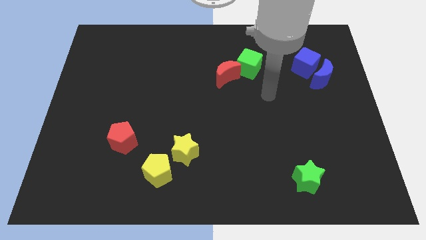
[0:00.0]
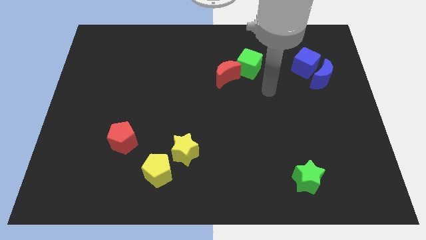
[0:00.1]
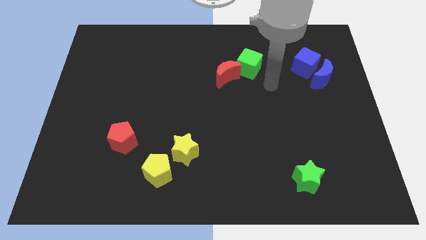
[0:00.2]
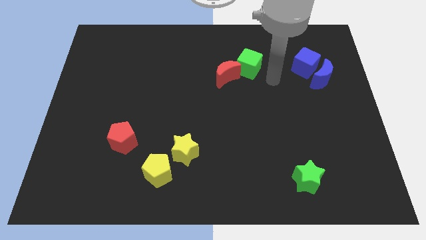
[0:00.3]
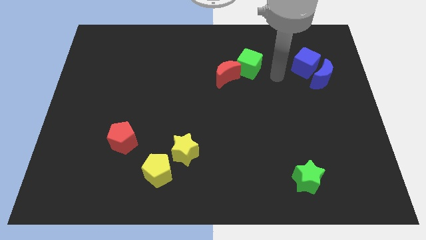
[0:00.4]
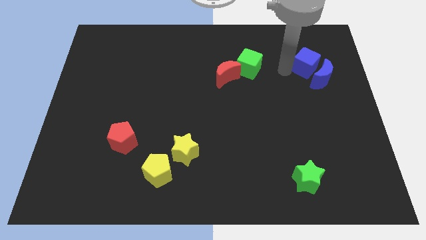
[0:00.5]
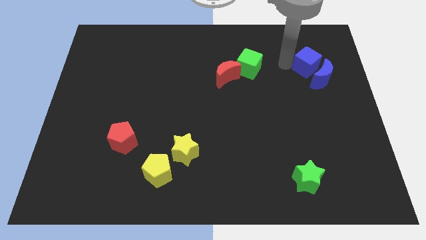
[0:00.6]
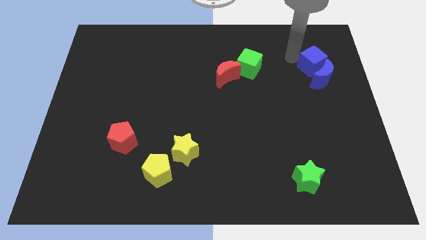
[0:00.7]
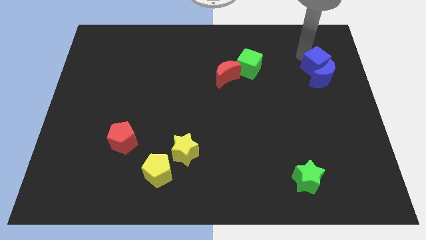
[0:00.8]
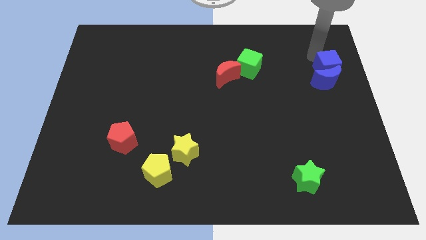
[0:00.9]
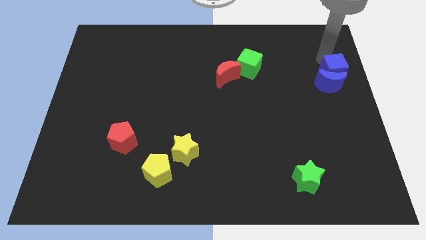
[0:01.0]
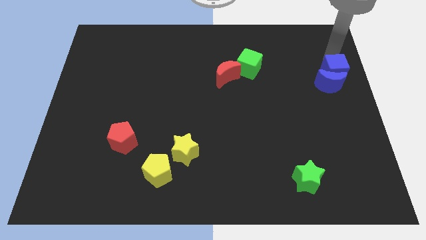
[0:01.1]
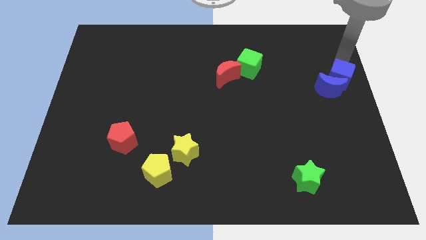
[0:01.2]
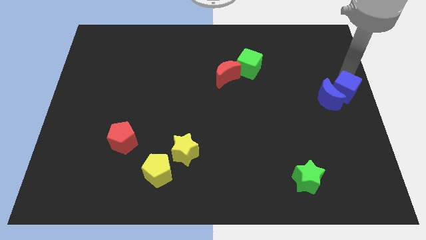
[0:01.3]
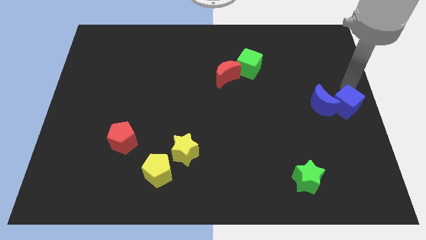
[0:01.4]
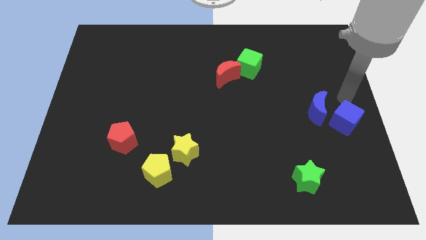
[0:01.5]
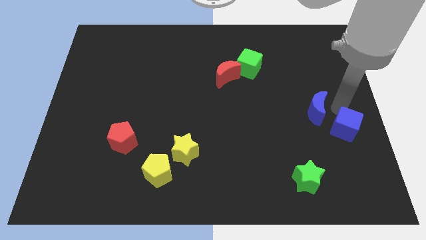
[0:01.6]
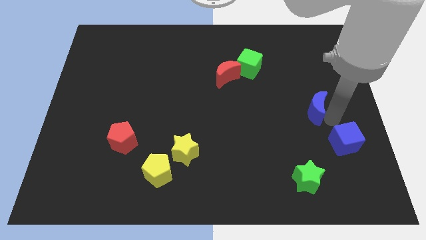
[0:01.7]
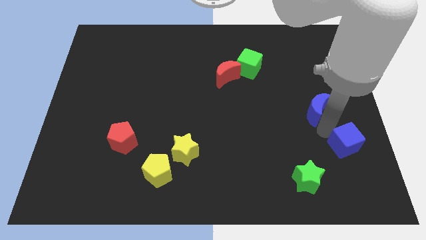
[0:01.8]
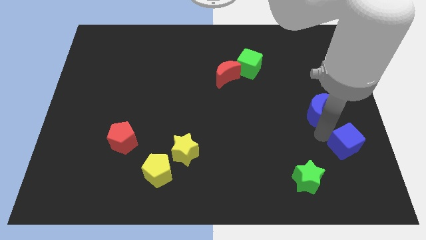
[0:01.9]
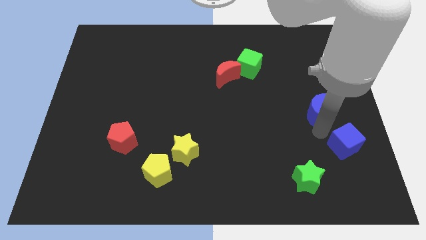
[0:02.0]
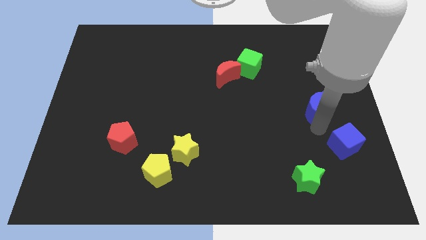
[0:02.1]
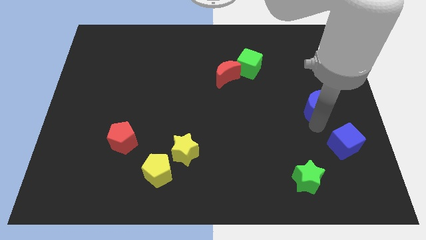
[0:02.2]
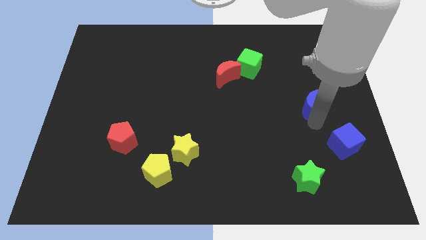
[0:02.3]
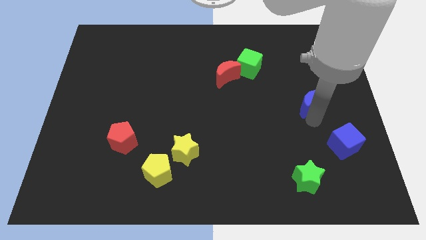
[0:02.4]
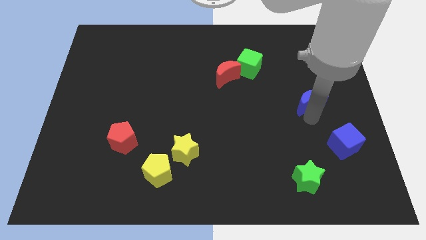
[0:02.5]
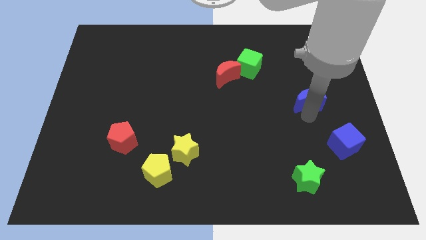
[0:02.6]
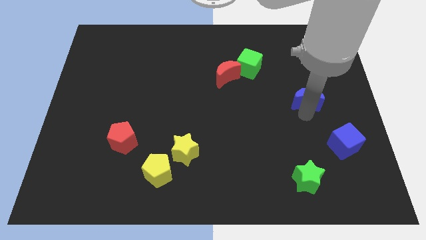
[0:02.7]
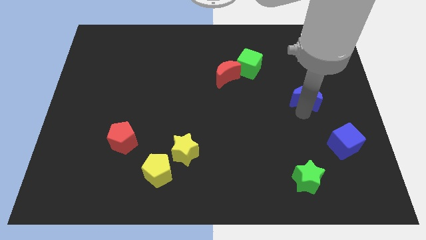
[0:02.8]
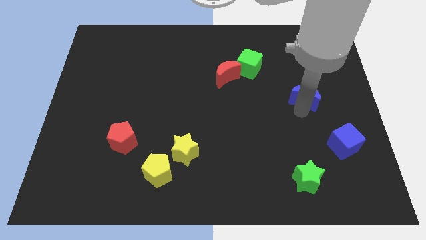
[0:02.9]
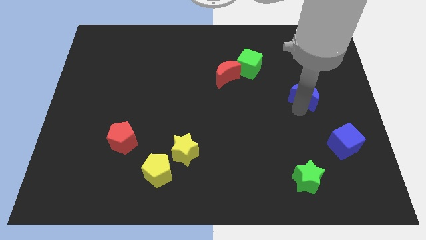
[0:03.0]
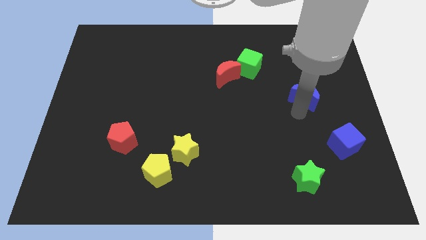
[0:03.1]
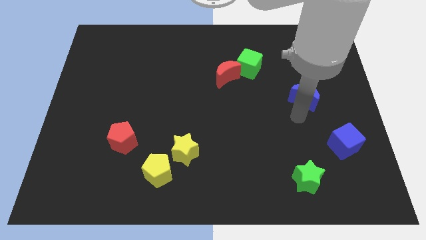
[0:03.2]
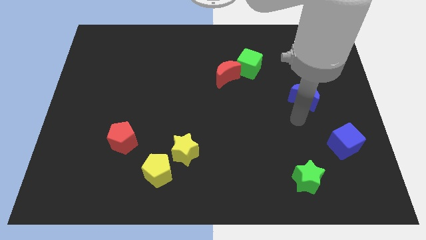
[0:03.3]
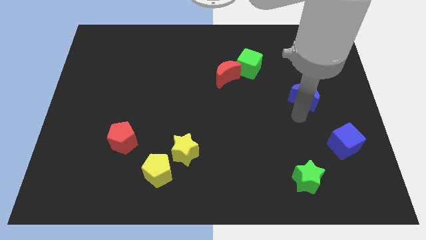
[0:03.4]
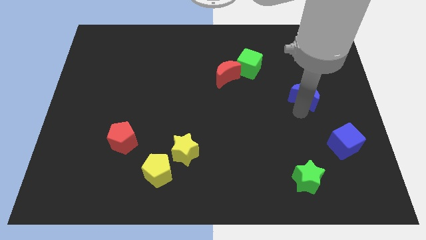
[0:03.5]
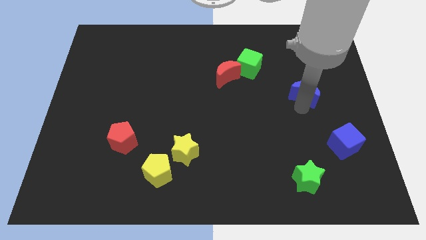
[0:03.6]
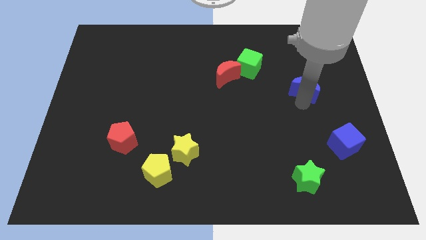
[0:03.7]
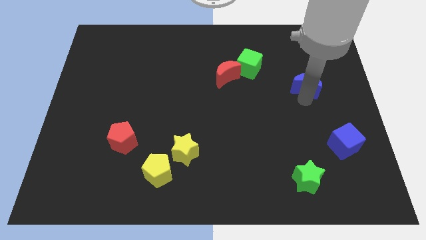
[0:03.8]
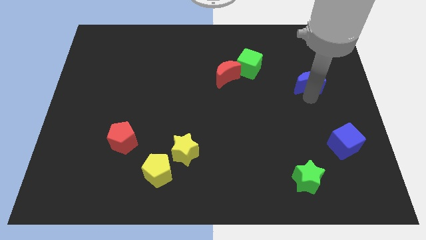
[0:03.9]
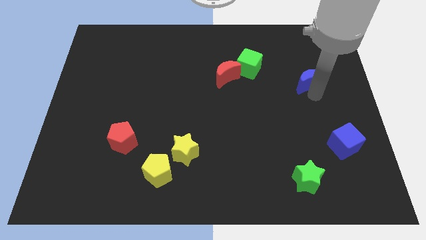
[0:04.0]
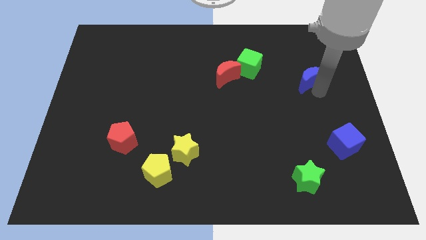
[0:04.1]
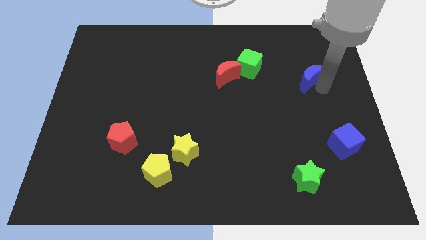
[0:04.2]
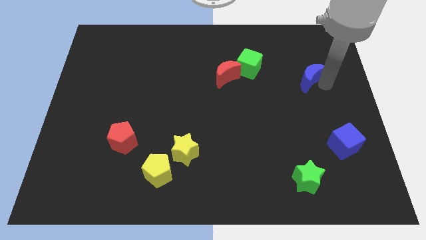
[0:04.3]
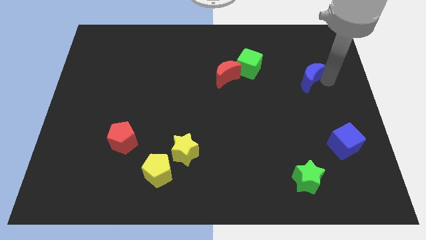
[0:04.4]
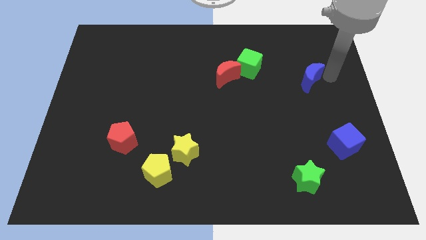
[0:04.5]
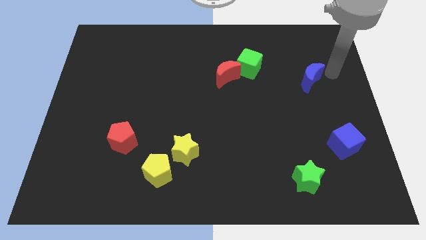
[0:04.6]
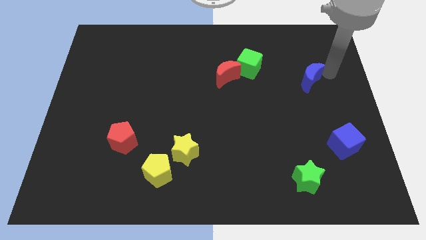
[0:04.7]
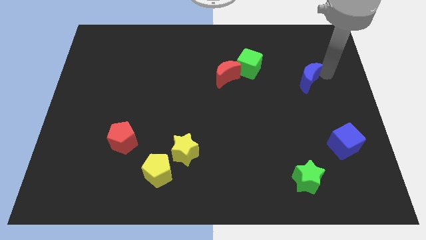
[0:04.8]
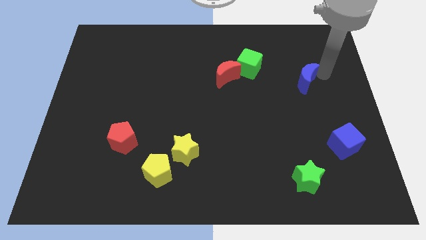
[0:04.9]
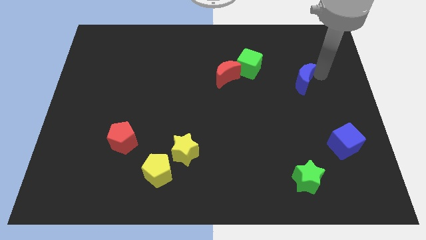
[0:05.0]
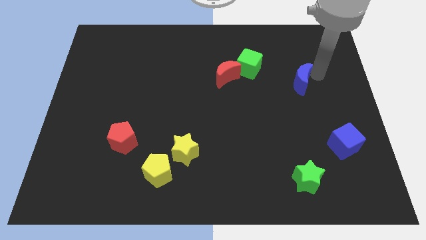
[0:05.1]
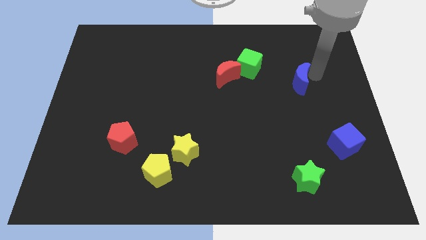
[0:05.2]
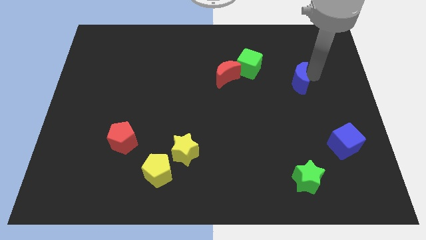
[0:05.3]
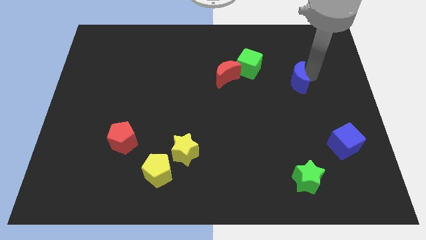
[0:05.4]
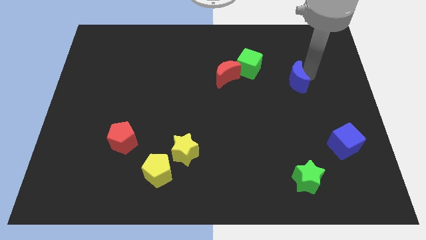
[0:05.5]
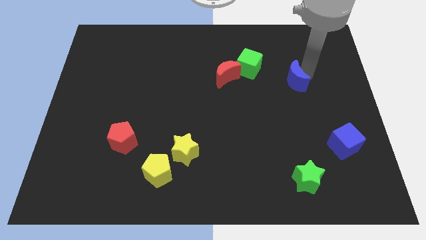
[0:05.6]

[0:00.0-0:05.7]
push the blue moon a little to the left

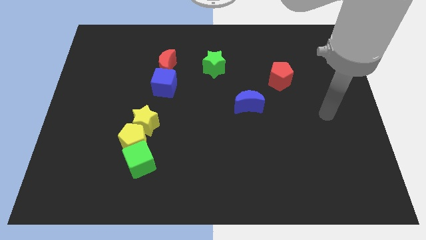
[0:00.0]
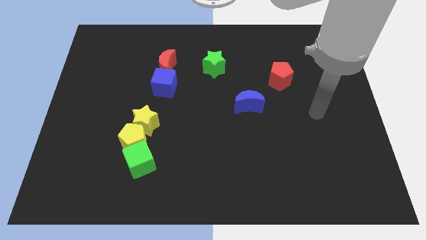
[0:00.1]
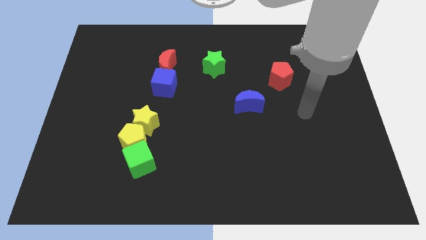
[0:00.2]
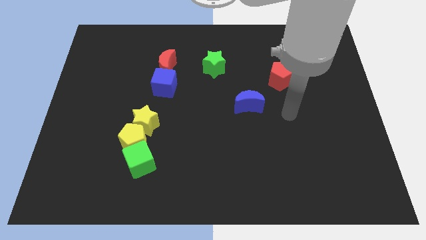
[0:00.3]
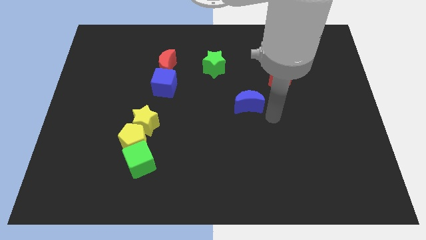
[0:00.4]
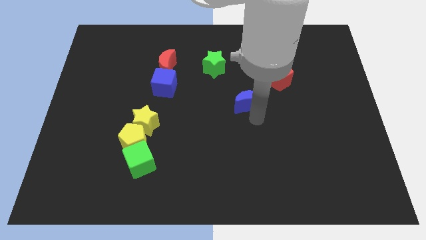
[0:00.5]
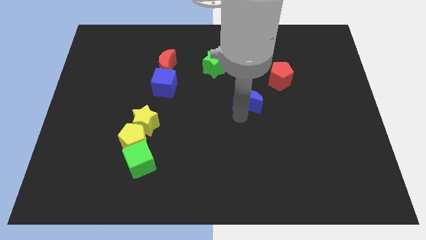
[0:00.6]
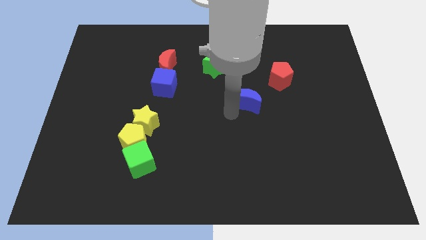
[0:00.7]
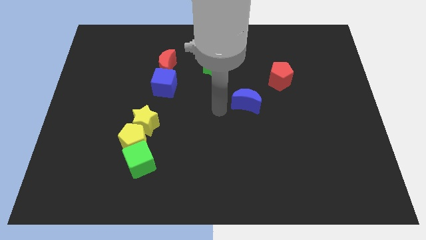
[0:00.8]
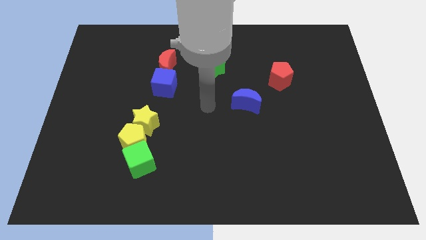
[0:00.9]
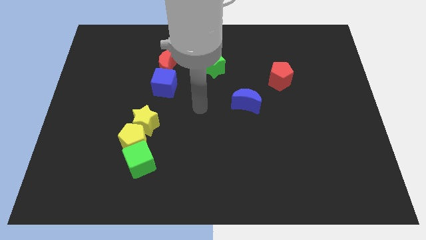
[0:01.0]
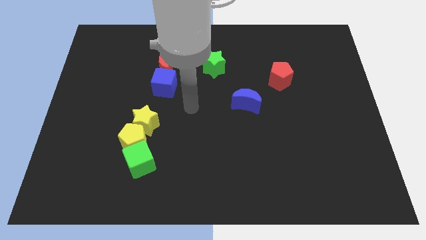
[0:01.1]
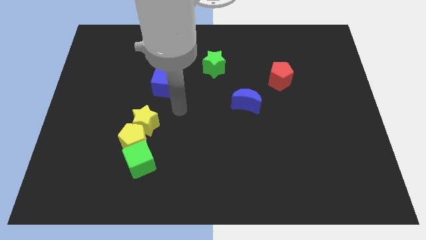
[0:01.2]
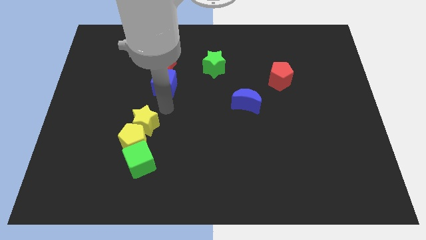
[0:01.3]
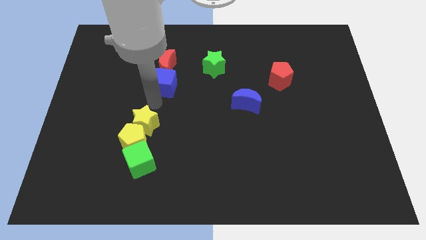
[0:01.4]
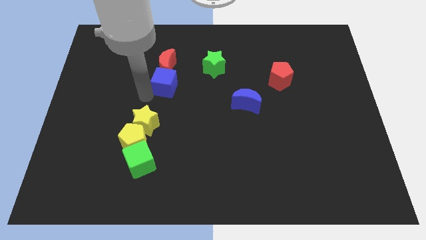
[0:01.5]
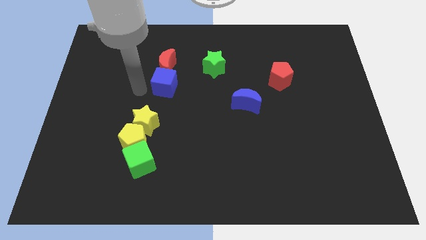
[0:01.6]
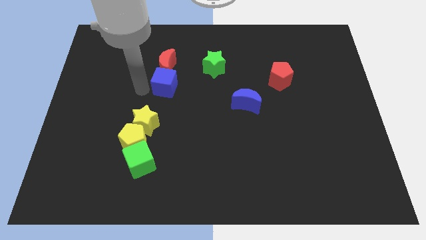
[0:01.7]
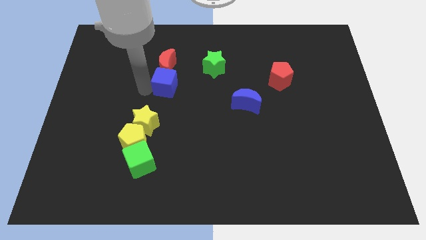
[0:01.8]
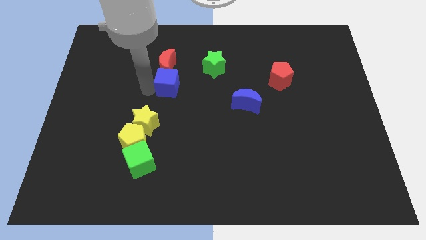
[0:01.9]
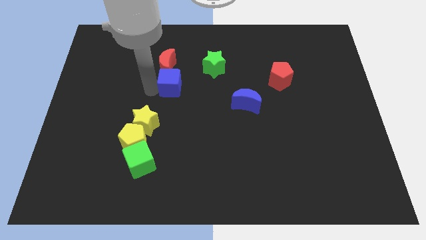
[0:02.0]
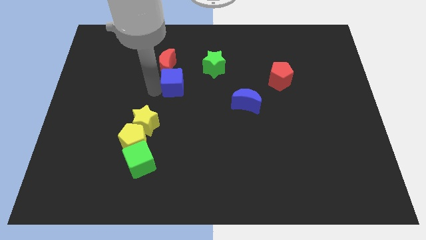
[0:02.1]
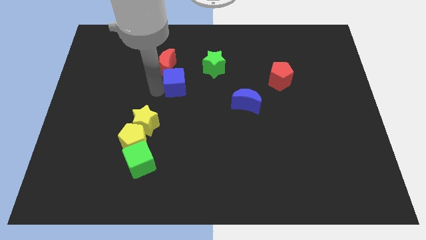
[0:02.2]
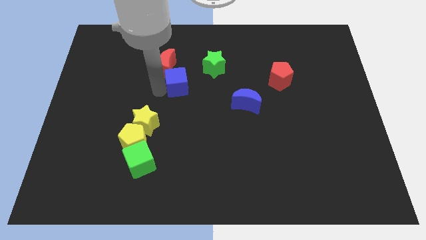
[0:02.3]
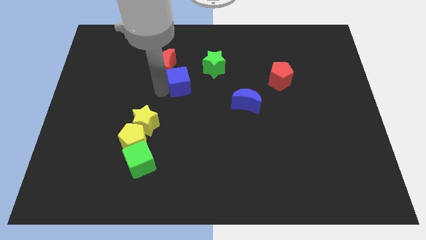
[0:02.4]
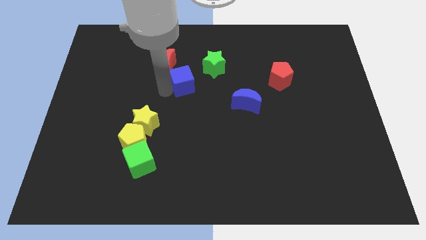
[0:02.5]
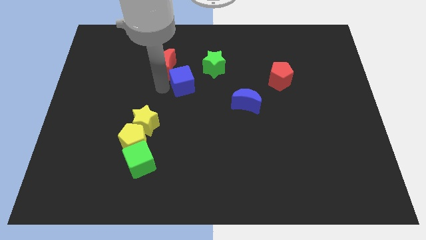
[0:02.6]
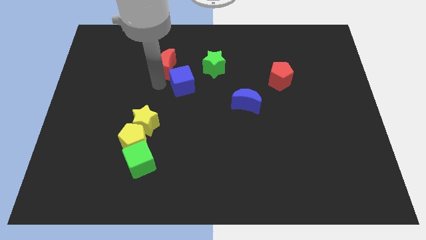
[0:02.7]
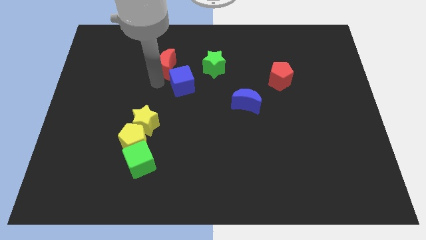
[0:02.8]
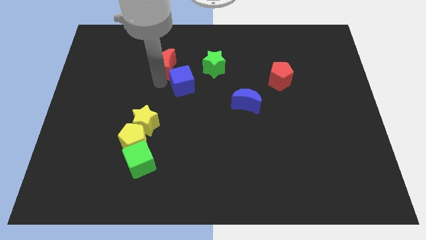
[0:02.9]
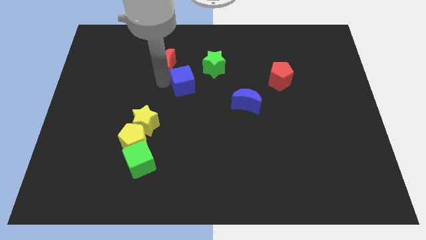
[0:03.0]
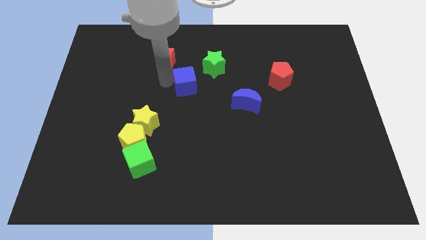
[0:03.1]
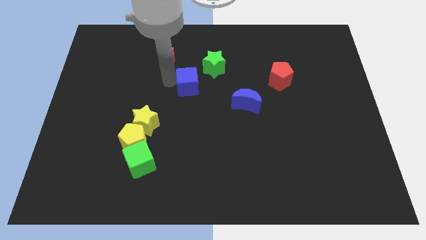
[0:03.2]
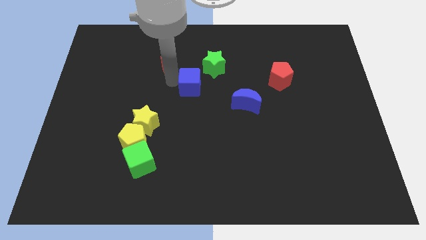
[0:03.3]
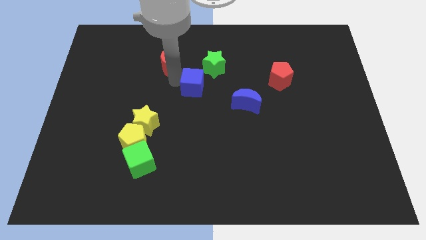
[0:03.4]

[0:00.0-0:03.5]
move the blue cube a little bit to the right
